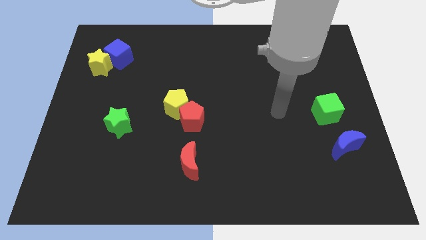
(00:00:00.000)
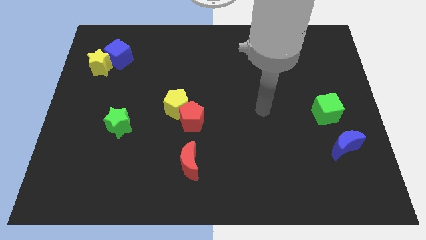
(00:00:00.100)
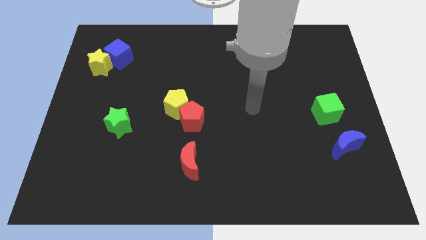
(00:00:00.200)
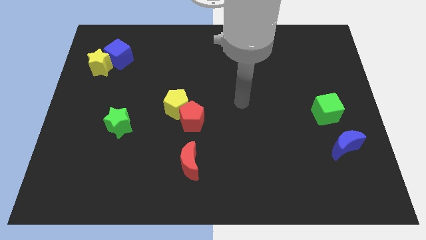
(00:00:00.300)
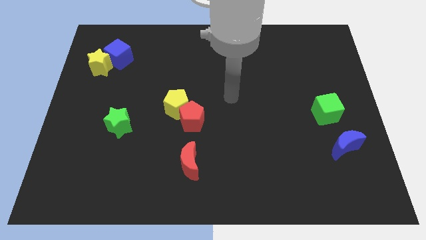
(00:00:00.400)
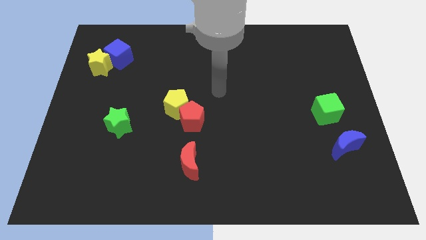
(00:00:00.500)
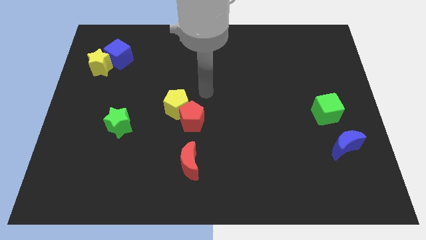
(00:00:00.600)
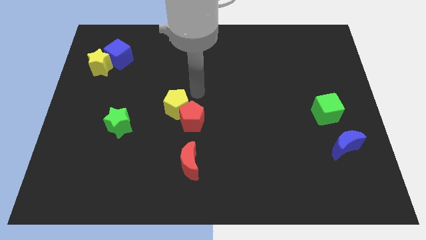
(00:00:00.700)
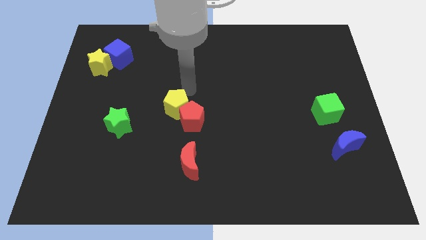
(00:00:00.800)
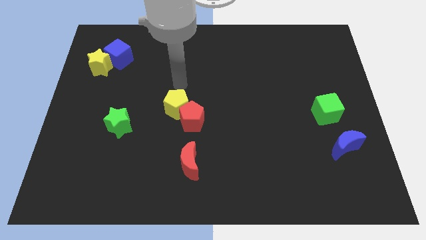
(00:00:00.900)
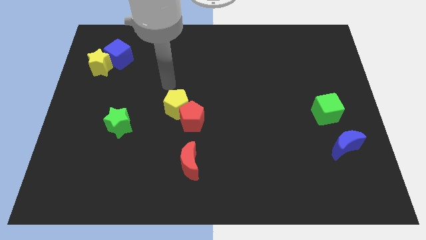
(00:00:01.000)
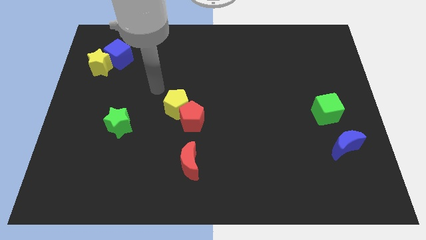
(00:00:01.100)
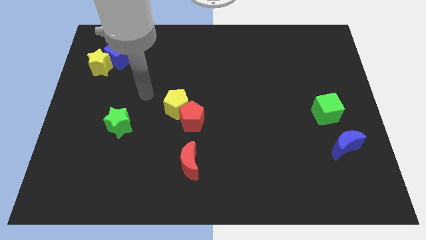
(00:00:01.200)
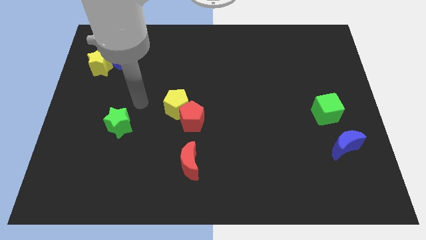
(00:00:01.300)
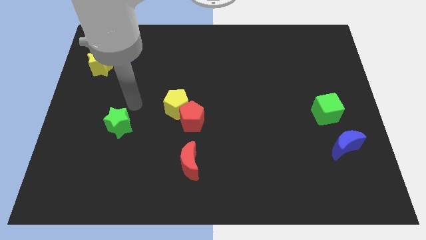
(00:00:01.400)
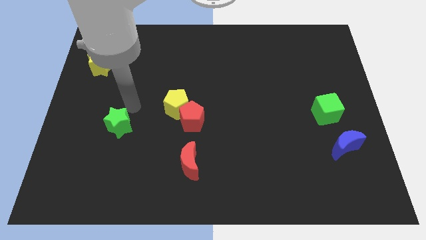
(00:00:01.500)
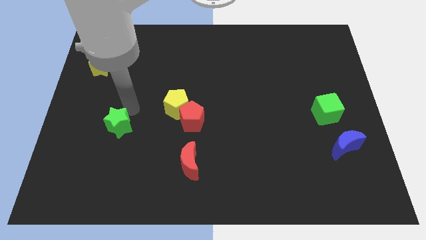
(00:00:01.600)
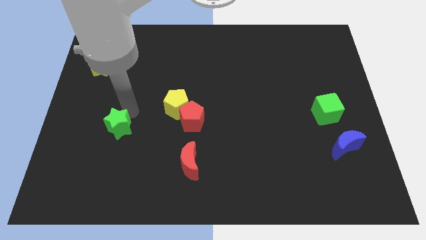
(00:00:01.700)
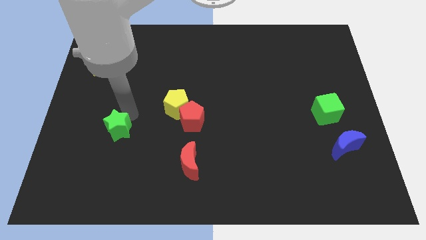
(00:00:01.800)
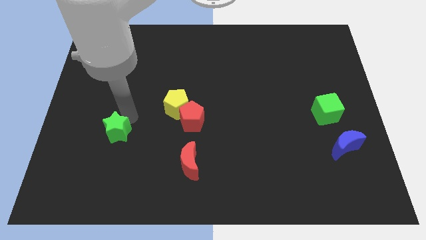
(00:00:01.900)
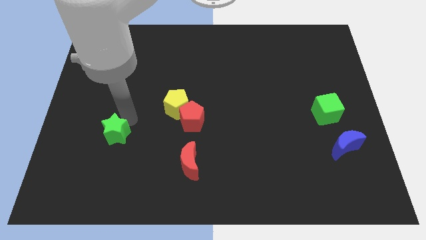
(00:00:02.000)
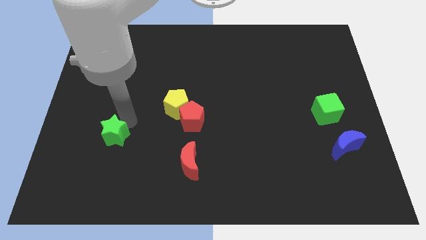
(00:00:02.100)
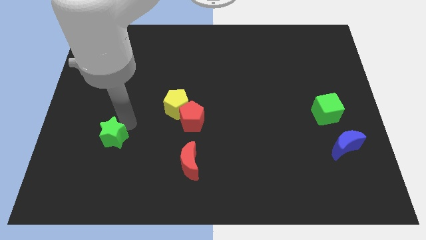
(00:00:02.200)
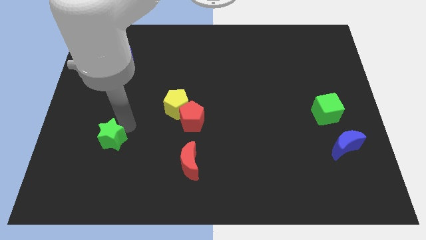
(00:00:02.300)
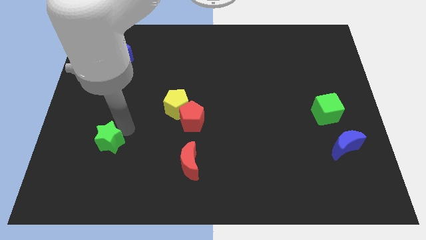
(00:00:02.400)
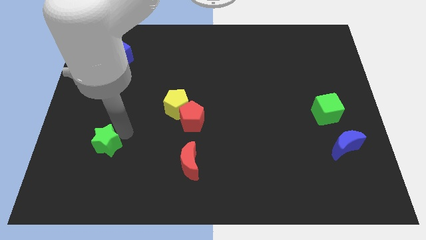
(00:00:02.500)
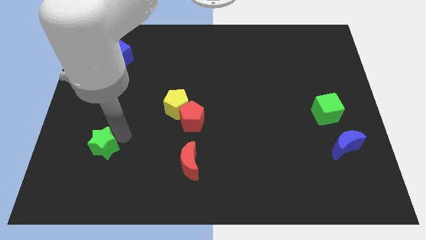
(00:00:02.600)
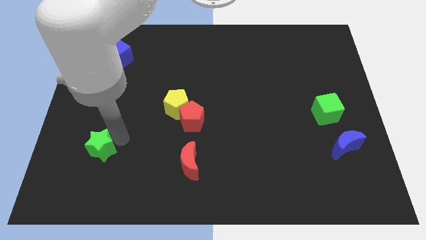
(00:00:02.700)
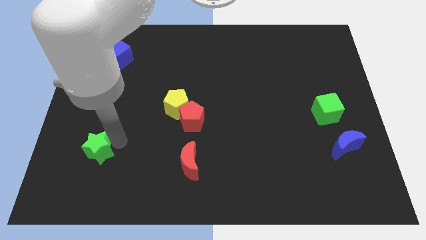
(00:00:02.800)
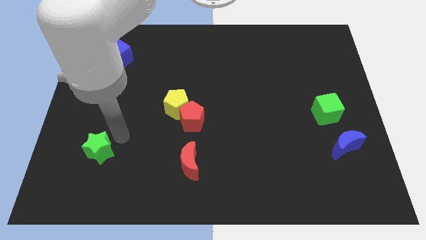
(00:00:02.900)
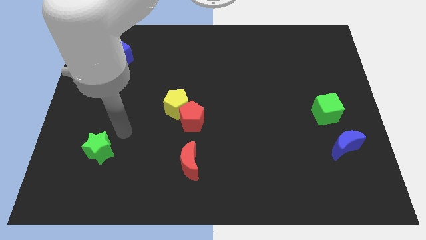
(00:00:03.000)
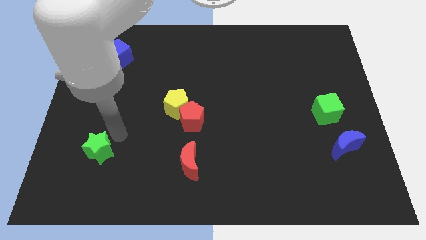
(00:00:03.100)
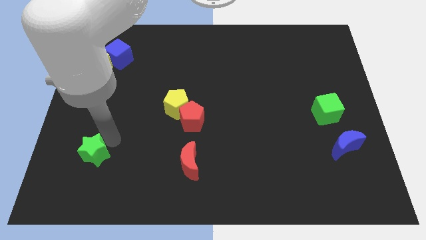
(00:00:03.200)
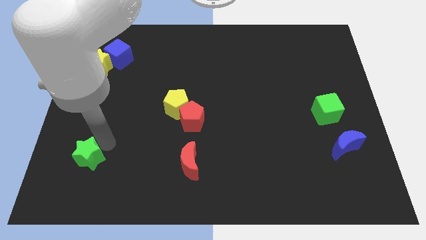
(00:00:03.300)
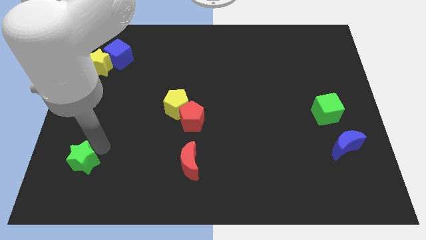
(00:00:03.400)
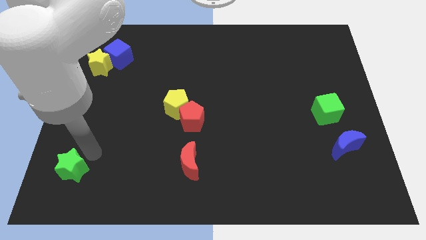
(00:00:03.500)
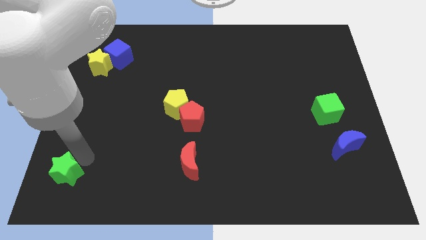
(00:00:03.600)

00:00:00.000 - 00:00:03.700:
put the green star to the bottom left corner

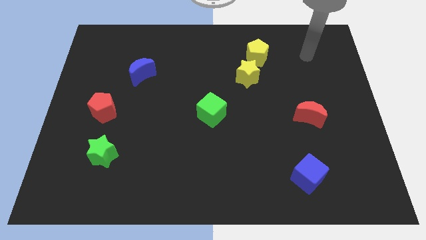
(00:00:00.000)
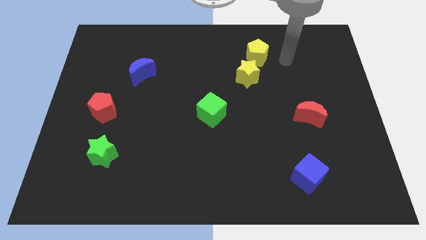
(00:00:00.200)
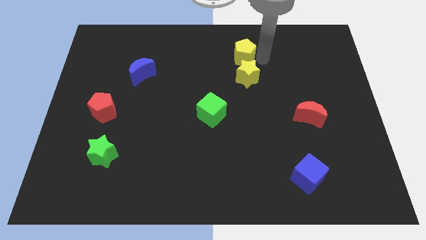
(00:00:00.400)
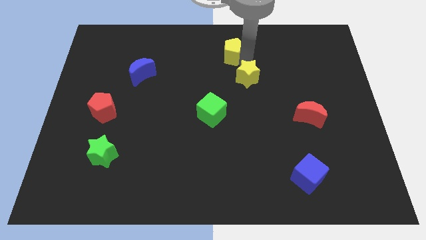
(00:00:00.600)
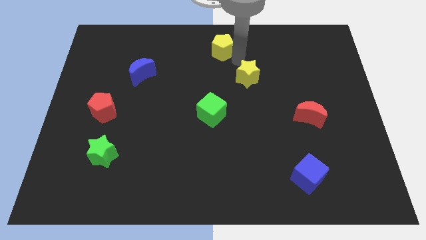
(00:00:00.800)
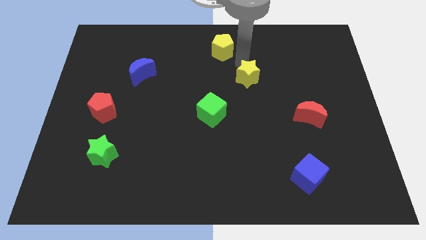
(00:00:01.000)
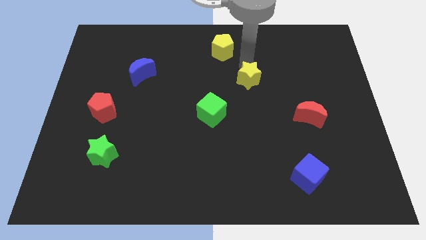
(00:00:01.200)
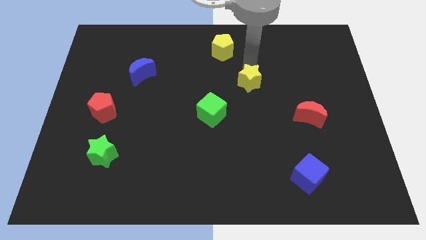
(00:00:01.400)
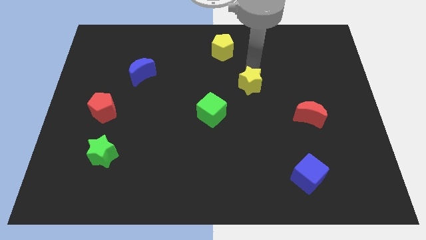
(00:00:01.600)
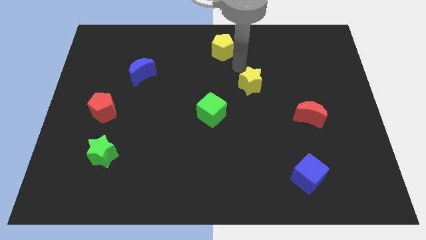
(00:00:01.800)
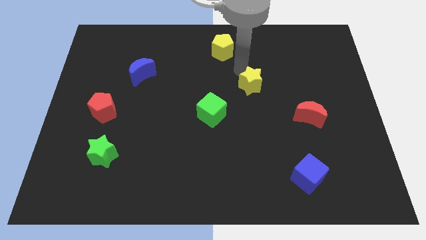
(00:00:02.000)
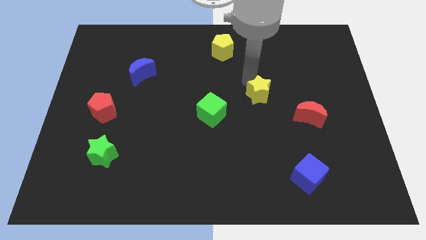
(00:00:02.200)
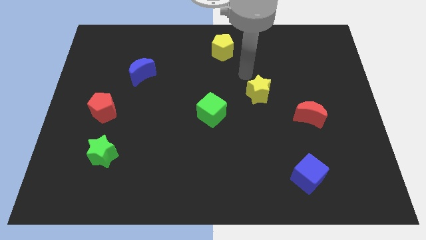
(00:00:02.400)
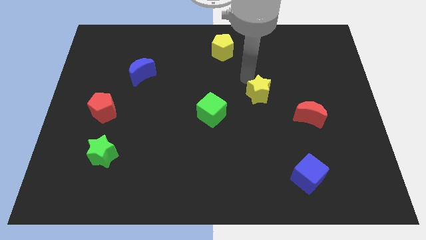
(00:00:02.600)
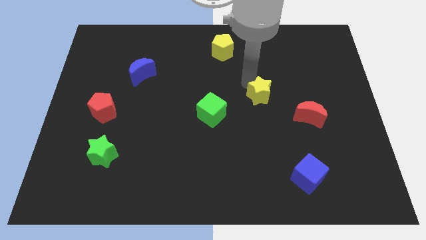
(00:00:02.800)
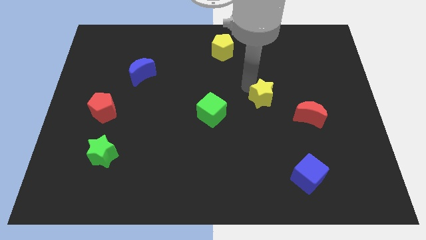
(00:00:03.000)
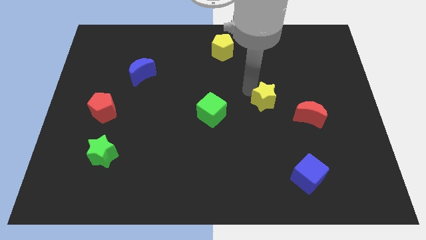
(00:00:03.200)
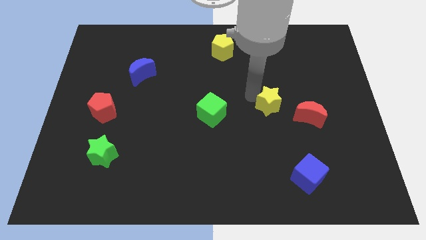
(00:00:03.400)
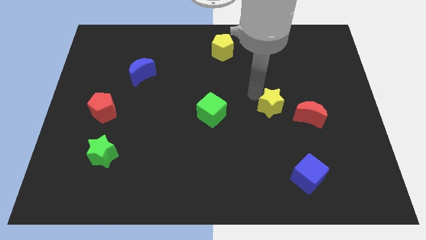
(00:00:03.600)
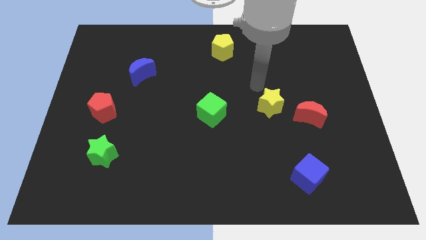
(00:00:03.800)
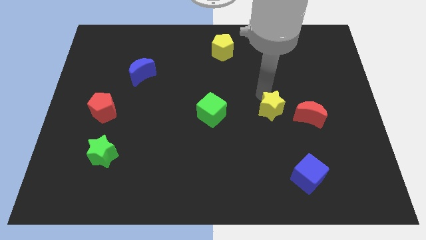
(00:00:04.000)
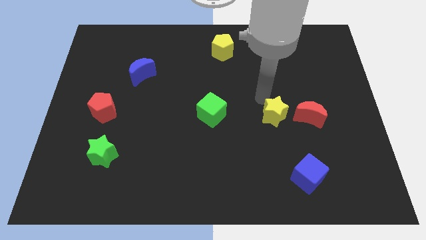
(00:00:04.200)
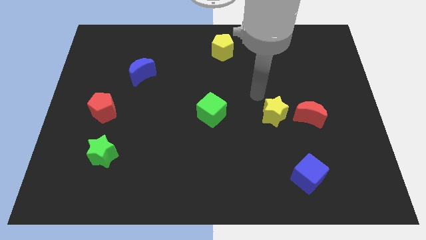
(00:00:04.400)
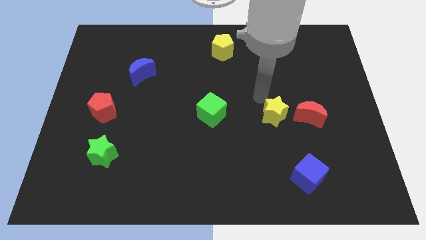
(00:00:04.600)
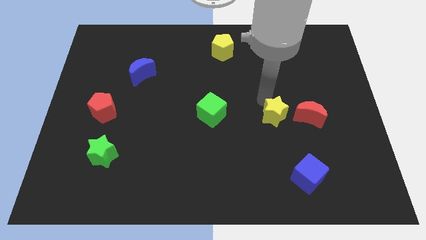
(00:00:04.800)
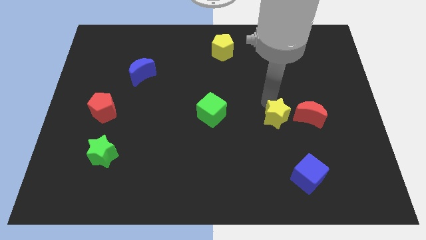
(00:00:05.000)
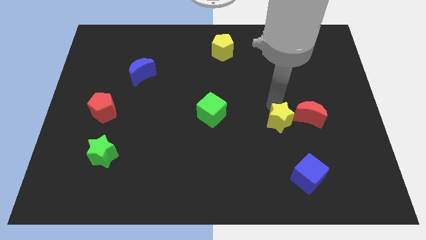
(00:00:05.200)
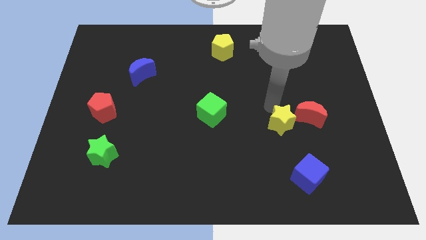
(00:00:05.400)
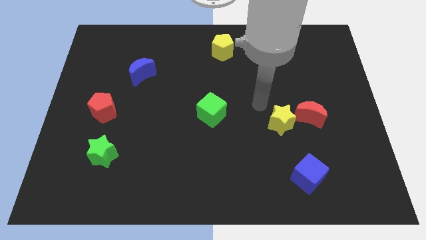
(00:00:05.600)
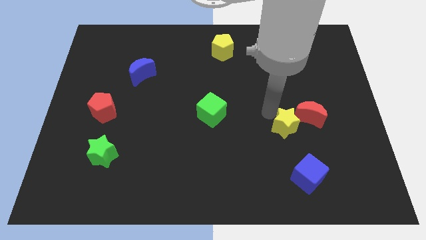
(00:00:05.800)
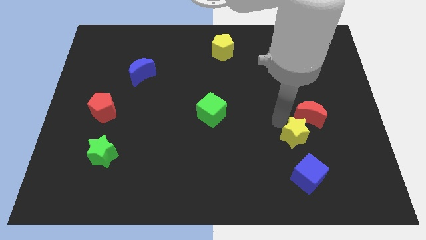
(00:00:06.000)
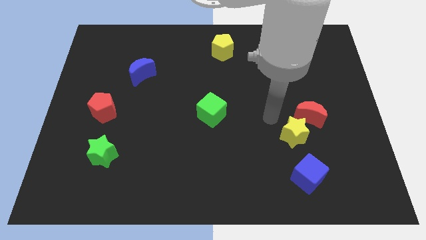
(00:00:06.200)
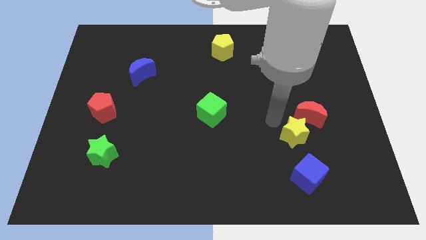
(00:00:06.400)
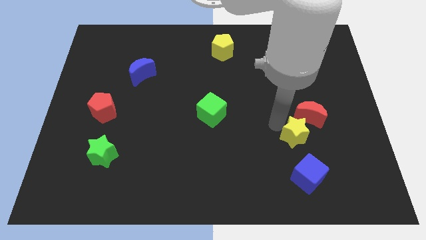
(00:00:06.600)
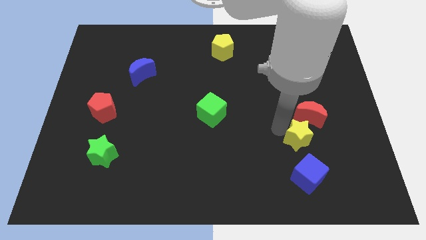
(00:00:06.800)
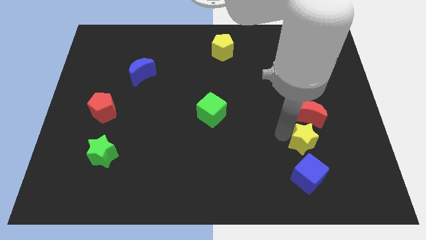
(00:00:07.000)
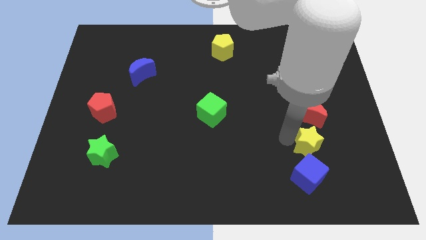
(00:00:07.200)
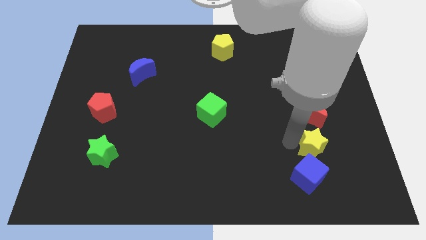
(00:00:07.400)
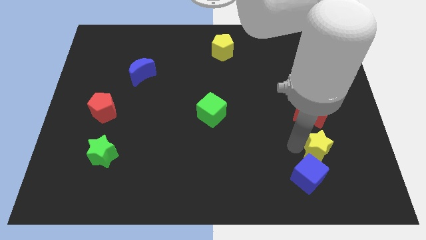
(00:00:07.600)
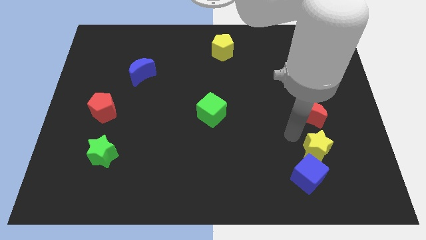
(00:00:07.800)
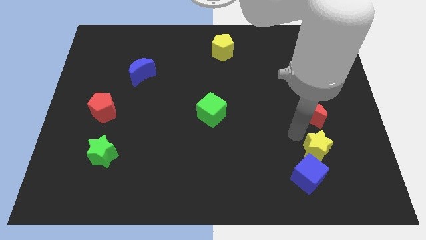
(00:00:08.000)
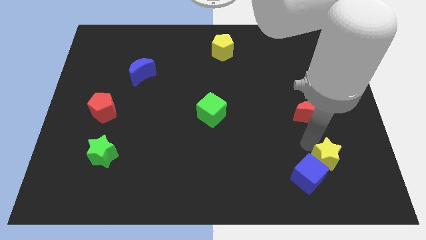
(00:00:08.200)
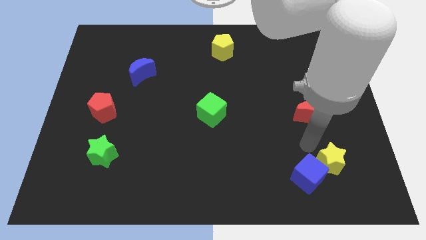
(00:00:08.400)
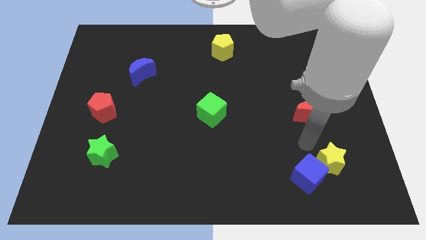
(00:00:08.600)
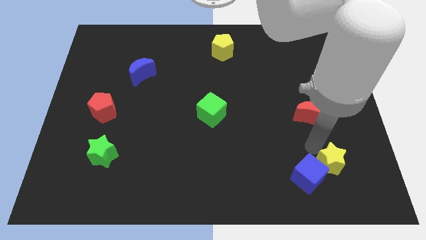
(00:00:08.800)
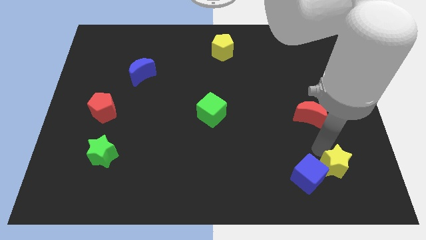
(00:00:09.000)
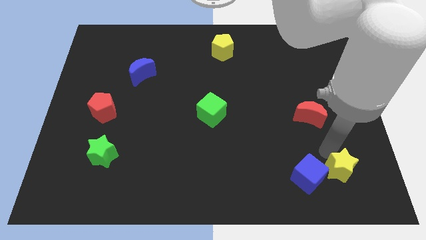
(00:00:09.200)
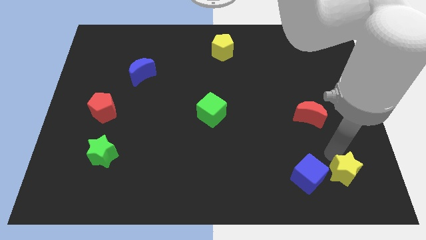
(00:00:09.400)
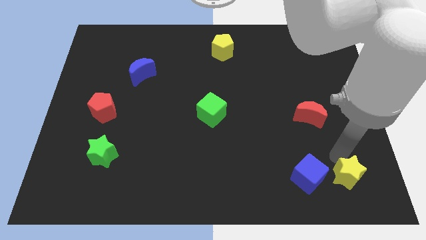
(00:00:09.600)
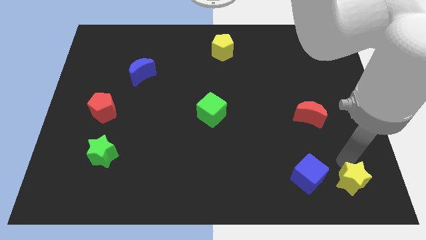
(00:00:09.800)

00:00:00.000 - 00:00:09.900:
put the yellow star to the lower right corner
